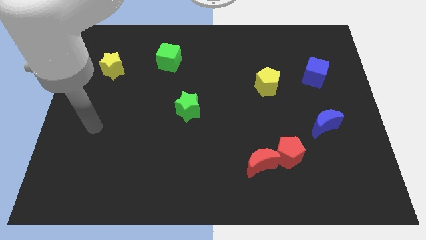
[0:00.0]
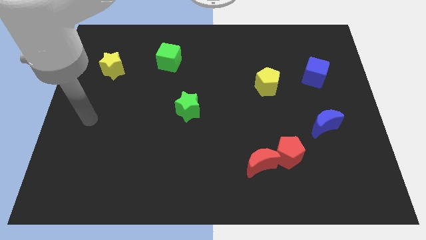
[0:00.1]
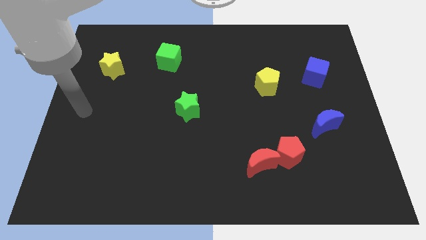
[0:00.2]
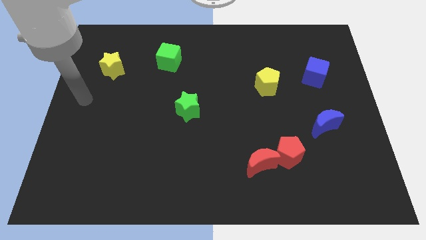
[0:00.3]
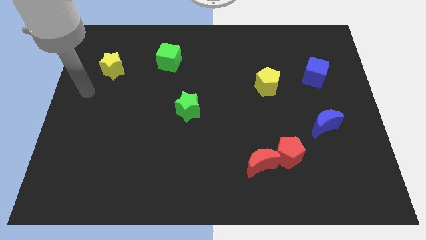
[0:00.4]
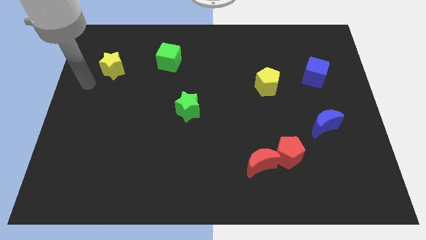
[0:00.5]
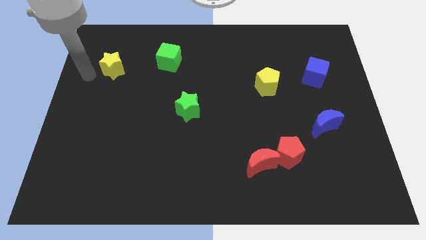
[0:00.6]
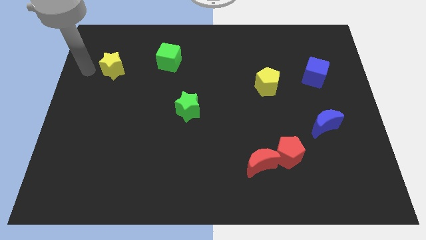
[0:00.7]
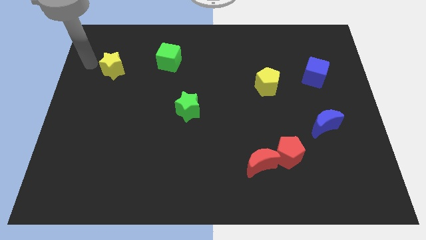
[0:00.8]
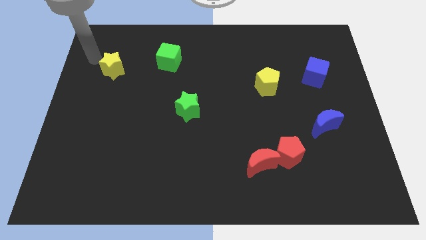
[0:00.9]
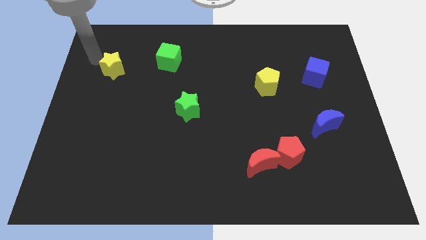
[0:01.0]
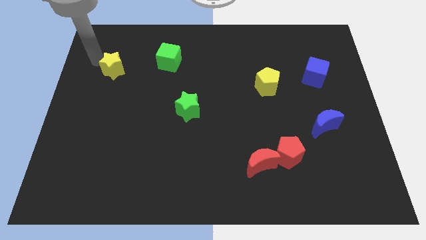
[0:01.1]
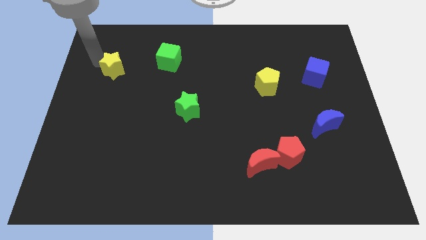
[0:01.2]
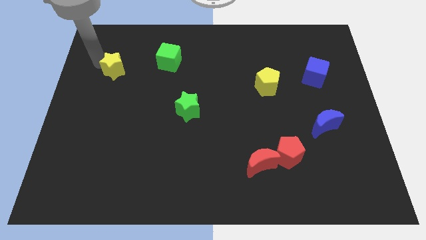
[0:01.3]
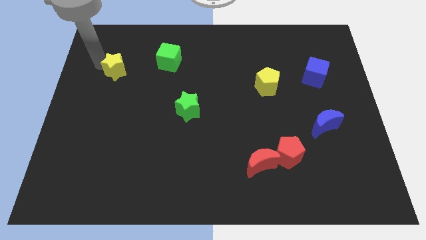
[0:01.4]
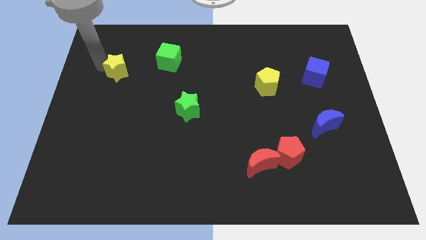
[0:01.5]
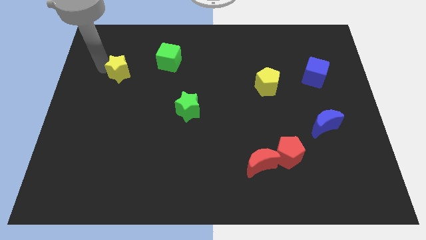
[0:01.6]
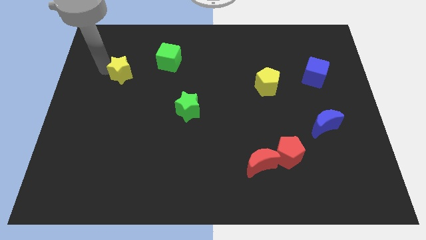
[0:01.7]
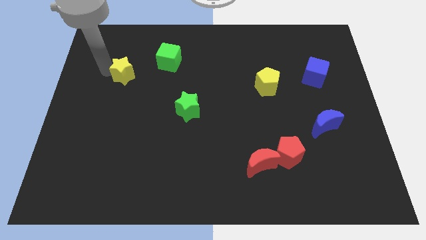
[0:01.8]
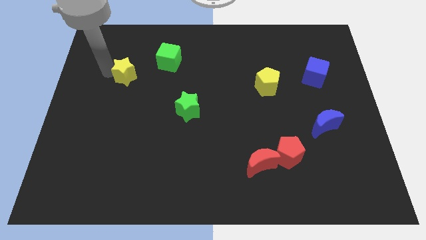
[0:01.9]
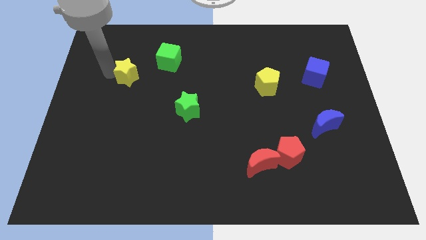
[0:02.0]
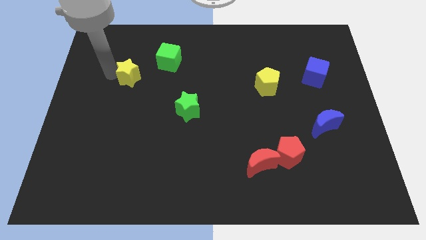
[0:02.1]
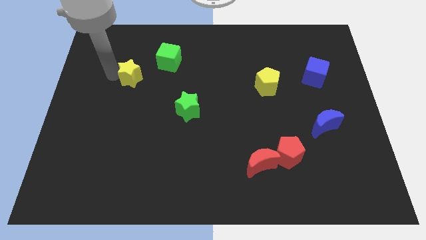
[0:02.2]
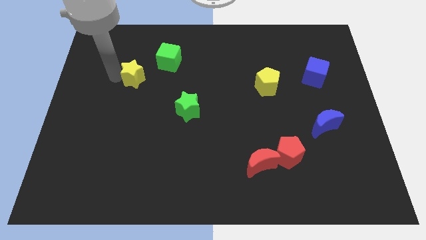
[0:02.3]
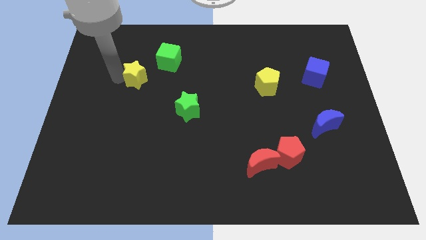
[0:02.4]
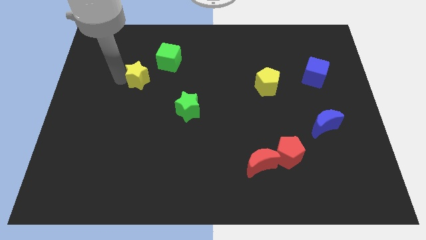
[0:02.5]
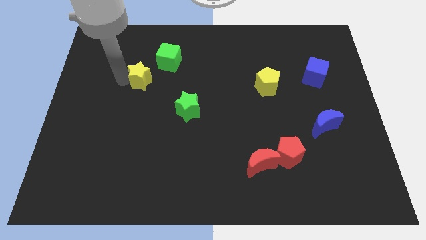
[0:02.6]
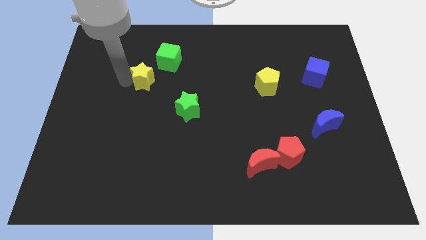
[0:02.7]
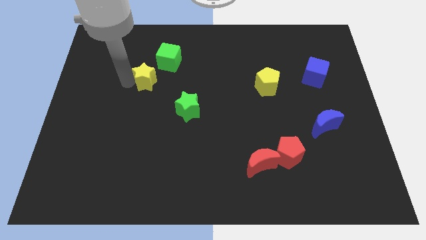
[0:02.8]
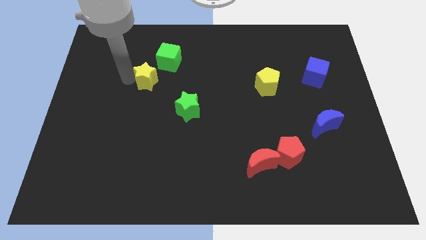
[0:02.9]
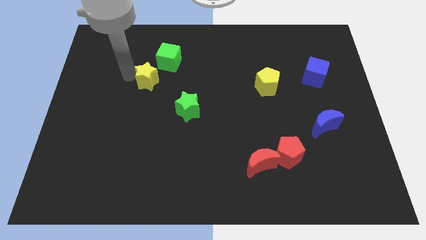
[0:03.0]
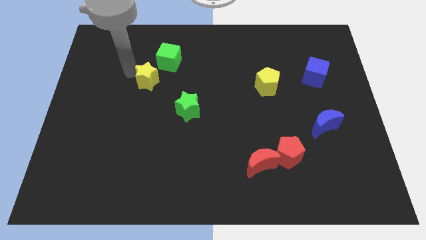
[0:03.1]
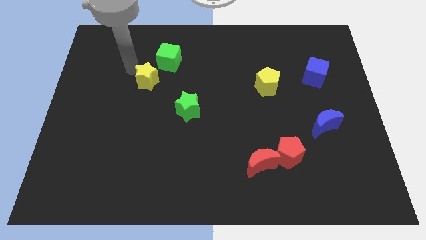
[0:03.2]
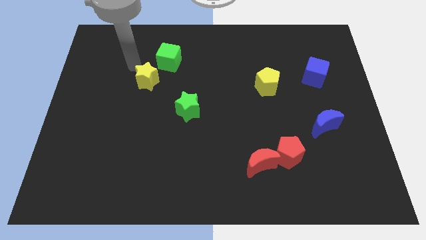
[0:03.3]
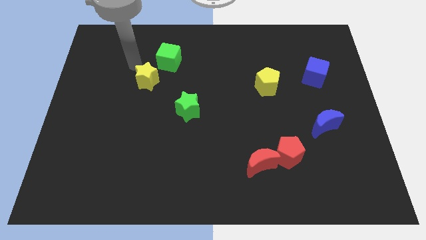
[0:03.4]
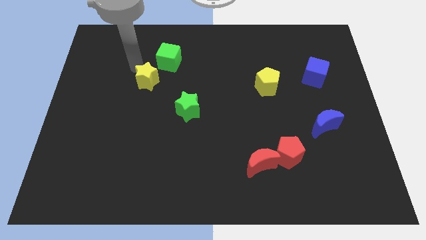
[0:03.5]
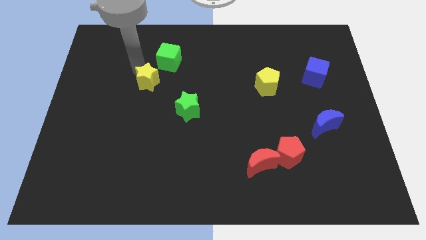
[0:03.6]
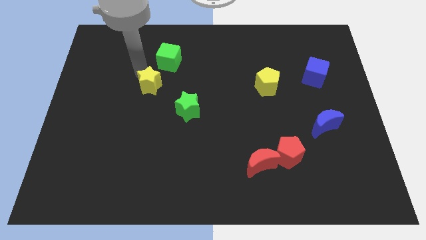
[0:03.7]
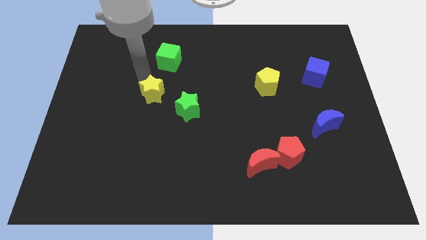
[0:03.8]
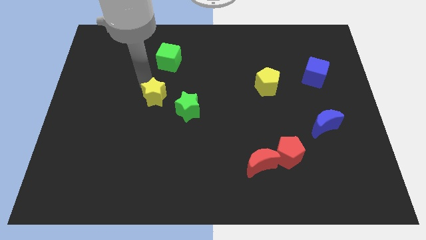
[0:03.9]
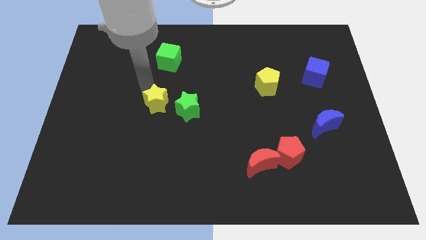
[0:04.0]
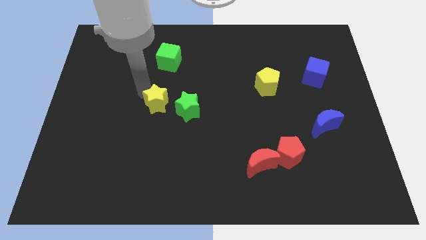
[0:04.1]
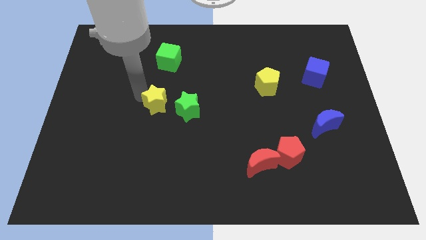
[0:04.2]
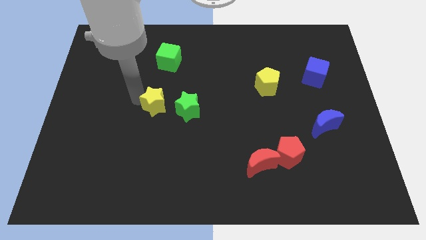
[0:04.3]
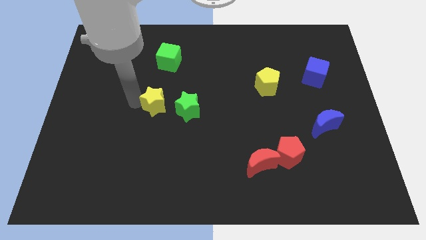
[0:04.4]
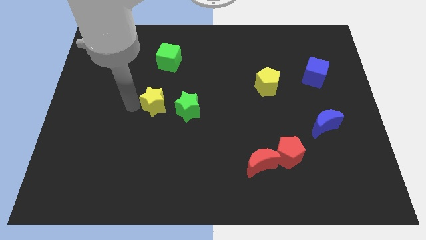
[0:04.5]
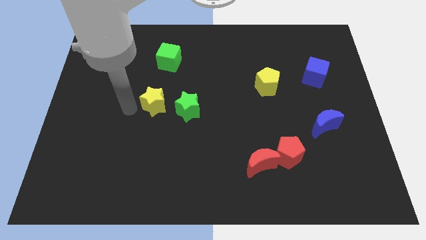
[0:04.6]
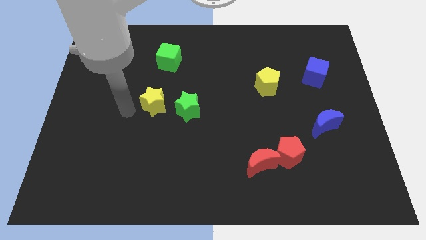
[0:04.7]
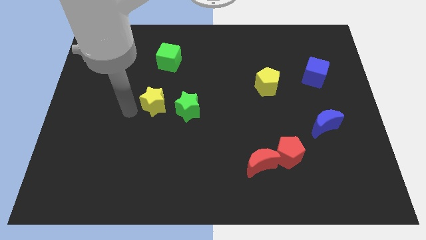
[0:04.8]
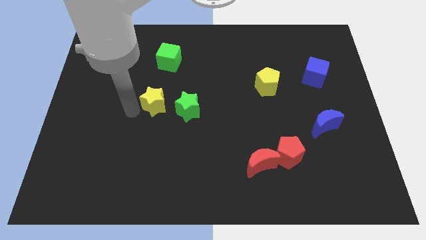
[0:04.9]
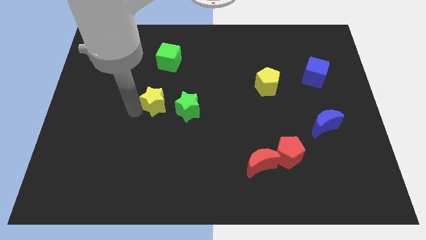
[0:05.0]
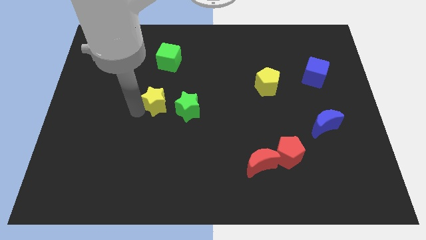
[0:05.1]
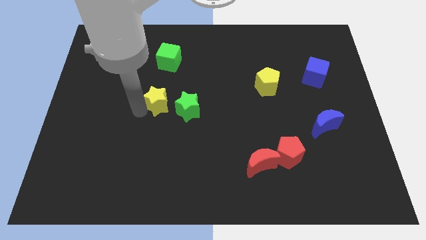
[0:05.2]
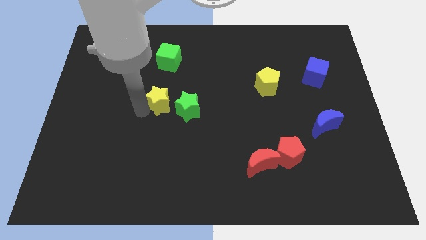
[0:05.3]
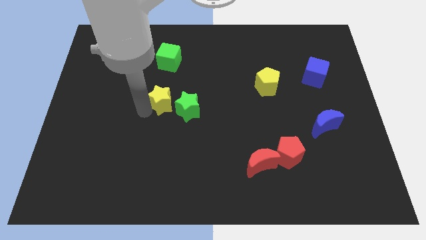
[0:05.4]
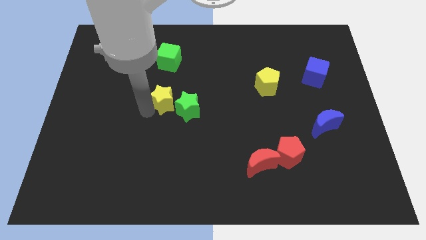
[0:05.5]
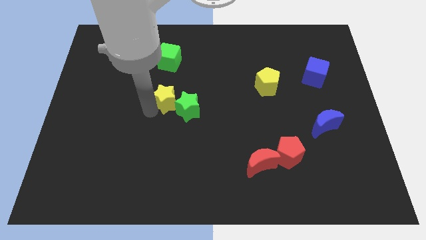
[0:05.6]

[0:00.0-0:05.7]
move the yellow star to the green star

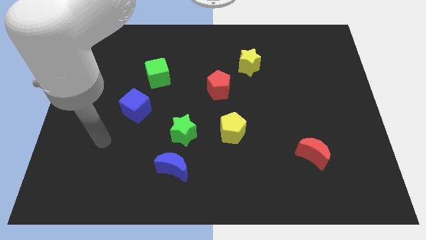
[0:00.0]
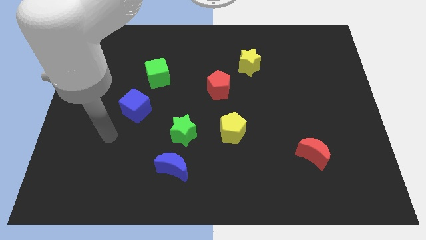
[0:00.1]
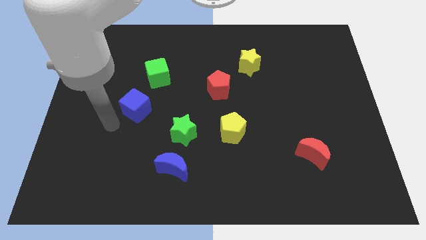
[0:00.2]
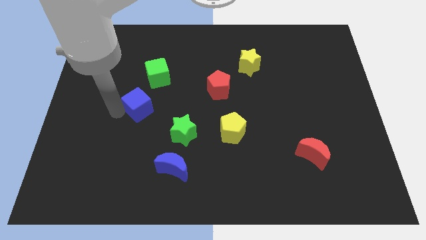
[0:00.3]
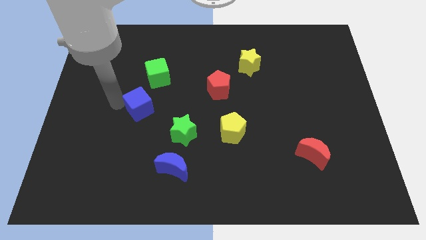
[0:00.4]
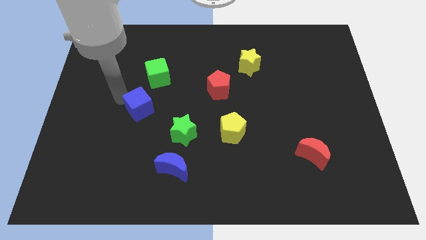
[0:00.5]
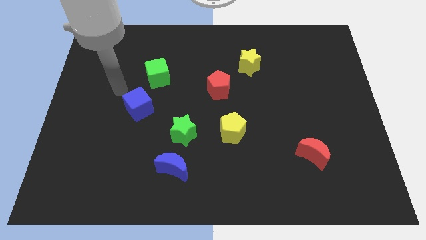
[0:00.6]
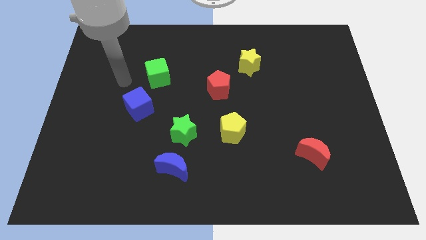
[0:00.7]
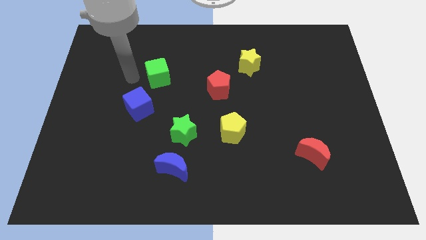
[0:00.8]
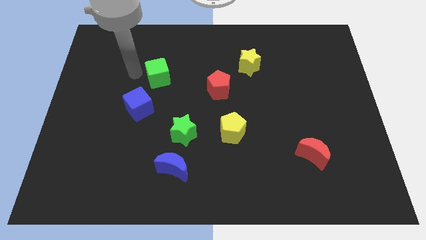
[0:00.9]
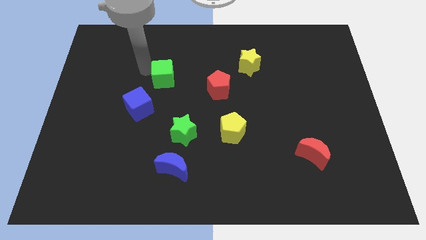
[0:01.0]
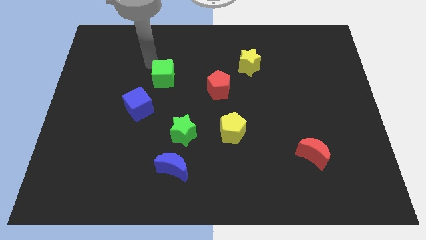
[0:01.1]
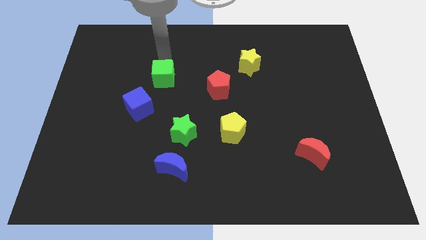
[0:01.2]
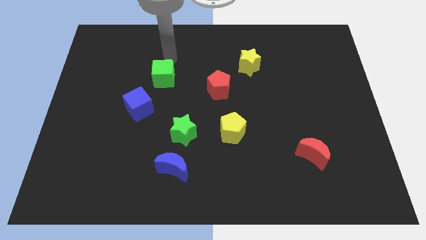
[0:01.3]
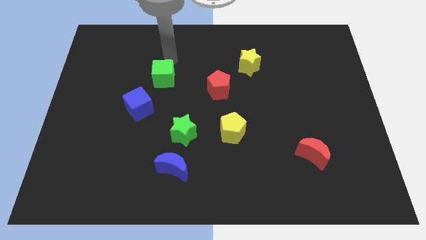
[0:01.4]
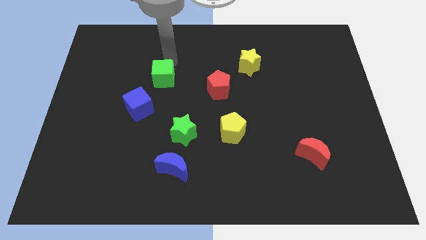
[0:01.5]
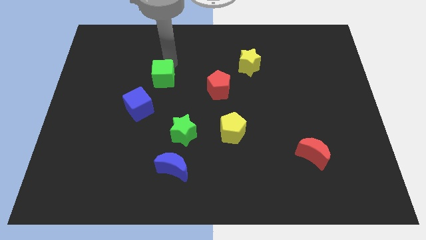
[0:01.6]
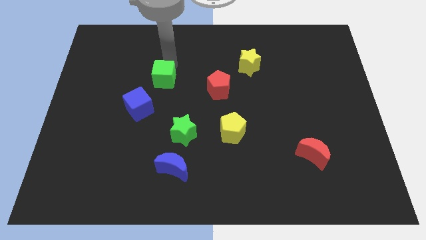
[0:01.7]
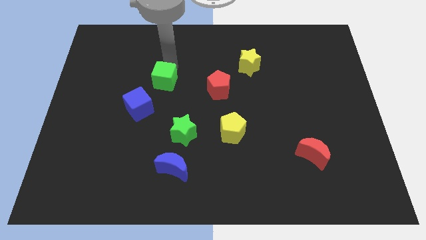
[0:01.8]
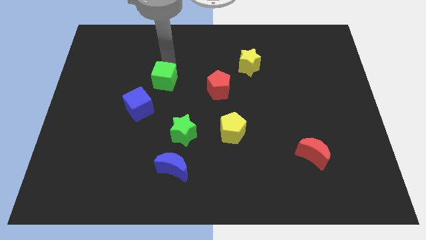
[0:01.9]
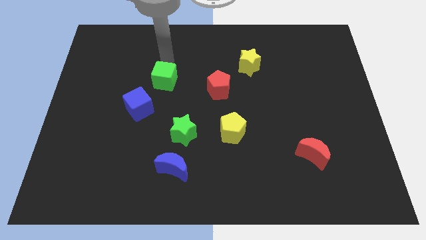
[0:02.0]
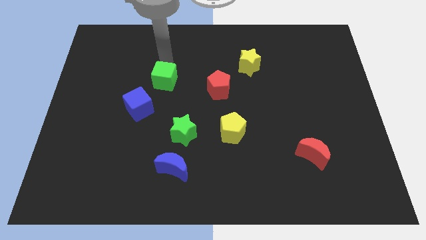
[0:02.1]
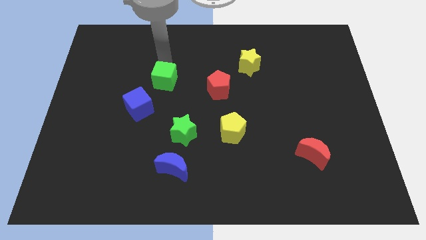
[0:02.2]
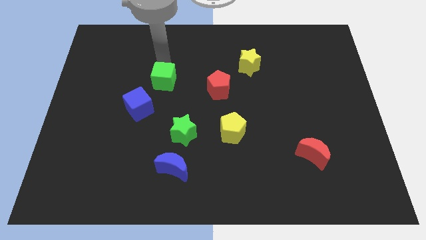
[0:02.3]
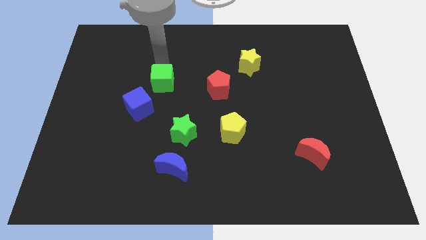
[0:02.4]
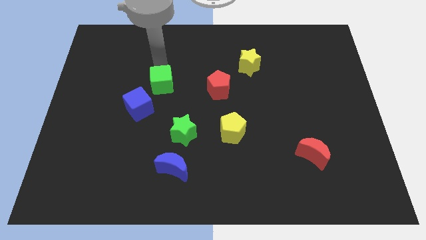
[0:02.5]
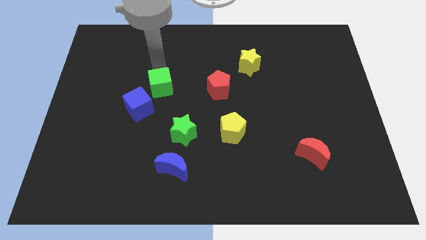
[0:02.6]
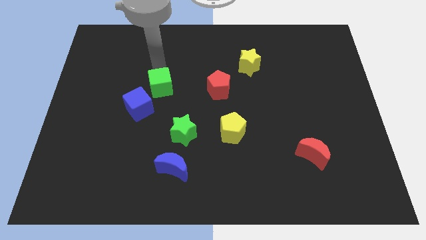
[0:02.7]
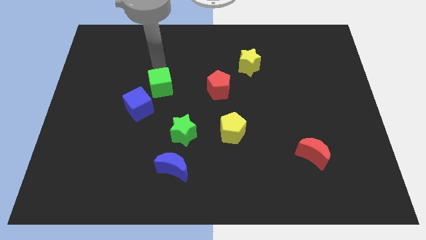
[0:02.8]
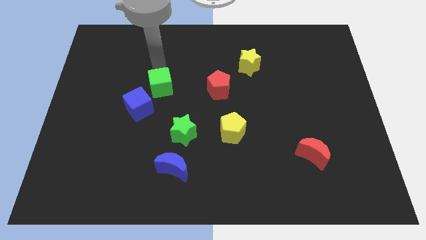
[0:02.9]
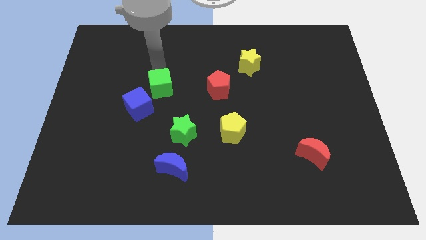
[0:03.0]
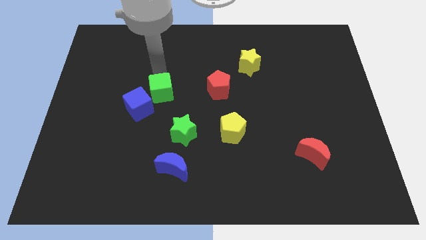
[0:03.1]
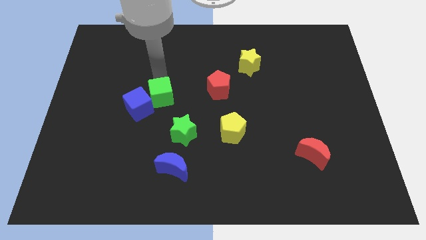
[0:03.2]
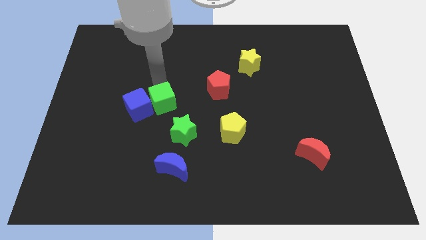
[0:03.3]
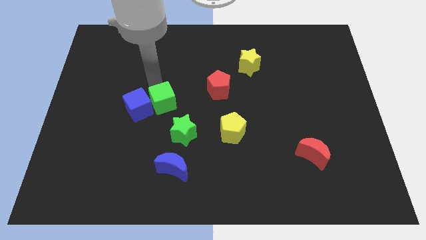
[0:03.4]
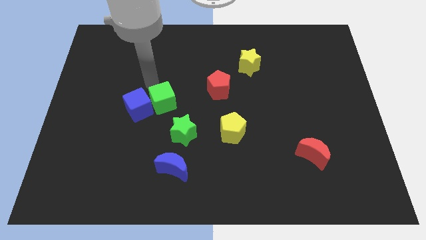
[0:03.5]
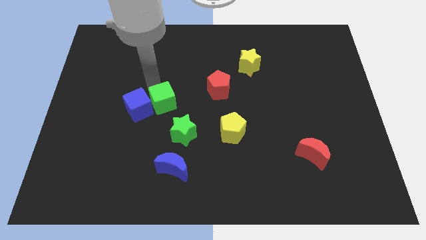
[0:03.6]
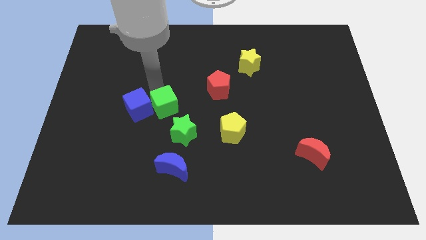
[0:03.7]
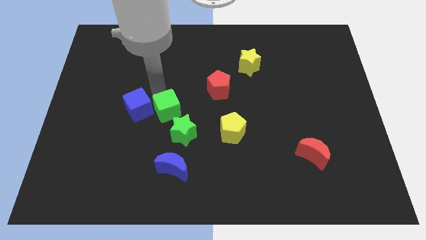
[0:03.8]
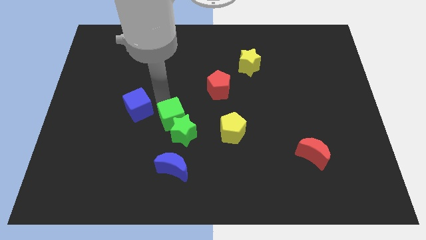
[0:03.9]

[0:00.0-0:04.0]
put the green cube to the green star
